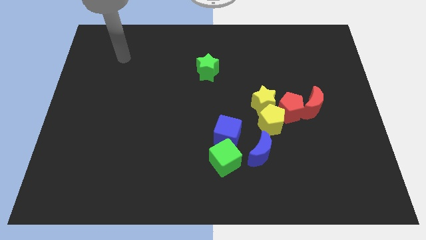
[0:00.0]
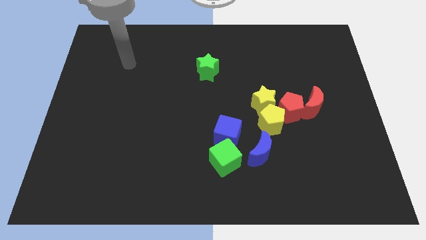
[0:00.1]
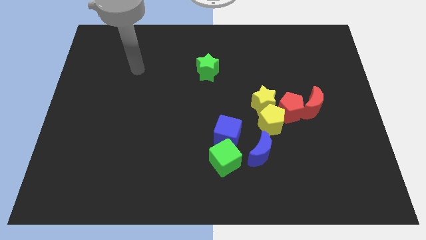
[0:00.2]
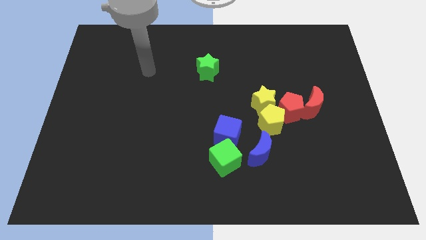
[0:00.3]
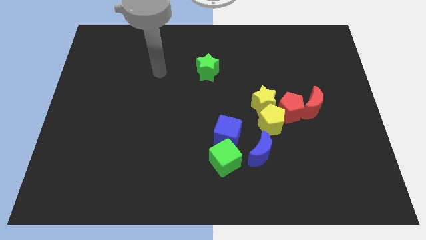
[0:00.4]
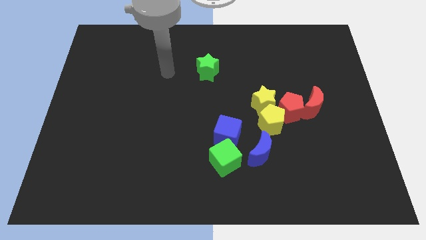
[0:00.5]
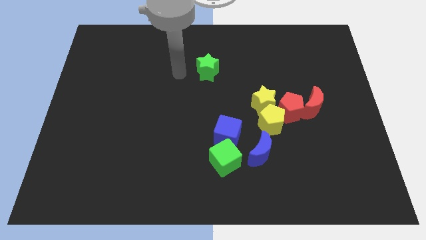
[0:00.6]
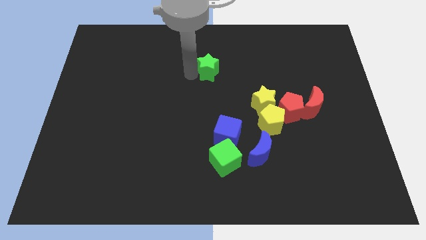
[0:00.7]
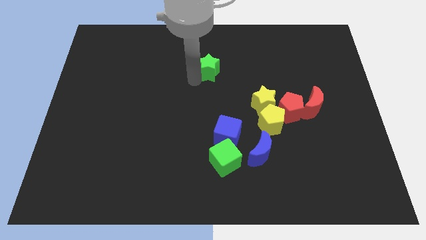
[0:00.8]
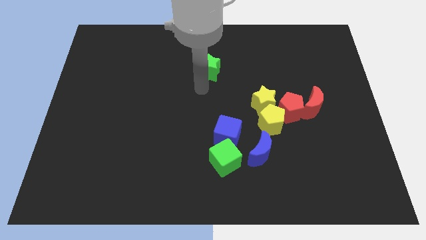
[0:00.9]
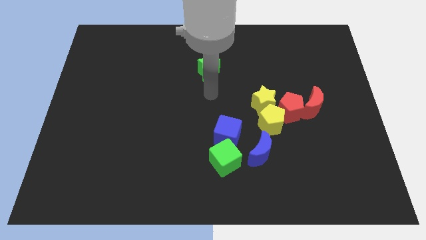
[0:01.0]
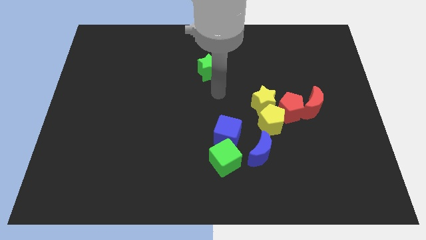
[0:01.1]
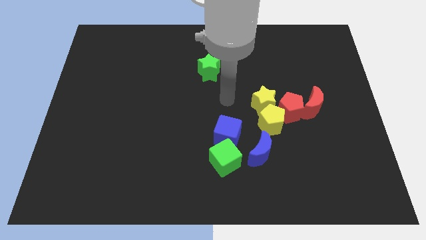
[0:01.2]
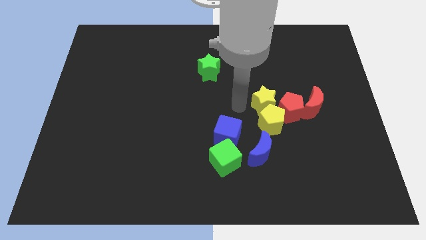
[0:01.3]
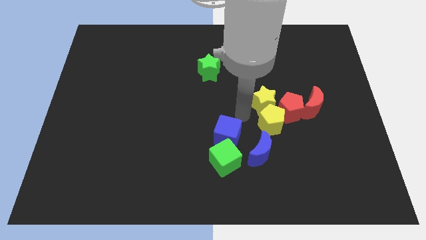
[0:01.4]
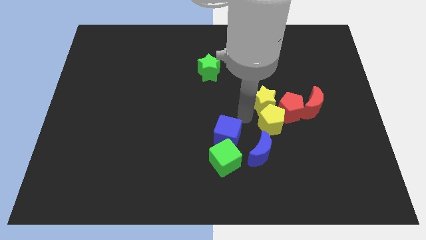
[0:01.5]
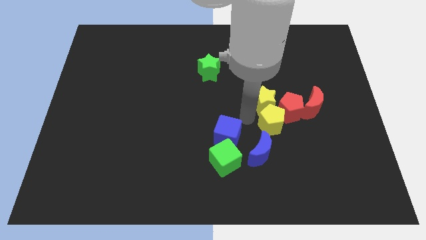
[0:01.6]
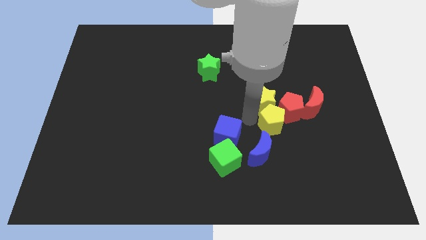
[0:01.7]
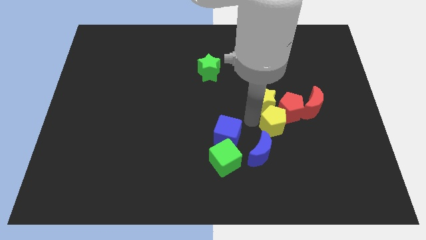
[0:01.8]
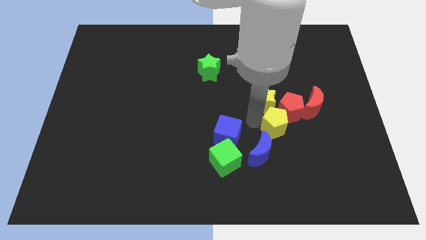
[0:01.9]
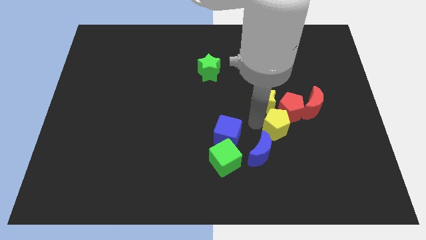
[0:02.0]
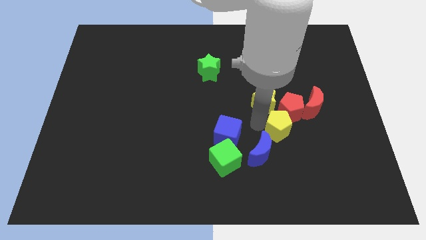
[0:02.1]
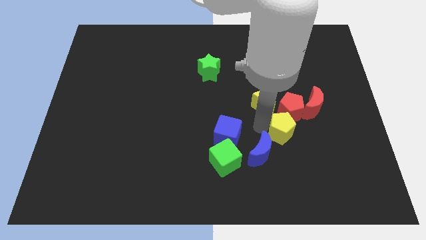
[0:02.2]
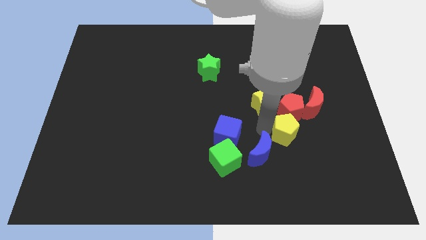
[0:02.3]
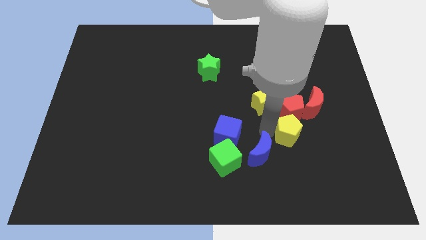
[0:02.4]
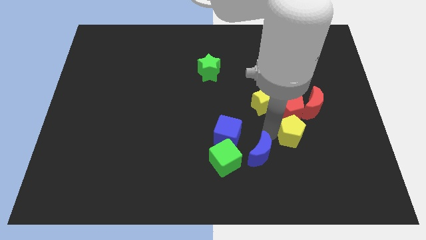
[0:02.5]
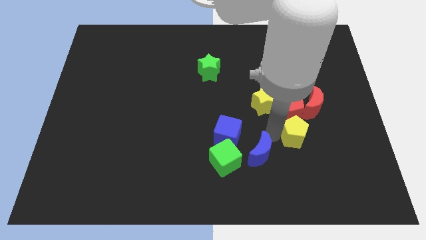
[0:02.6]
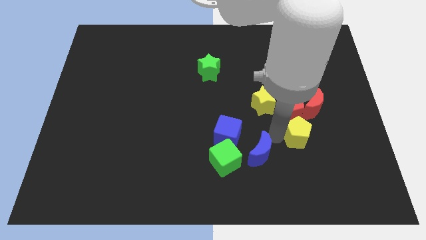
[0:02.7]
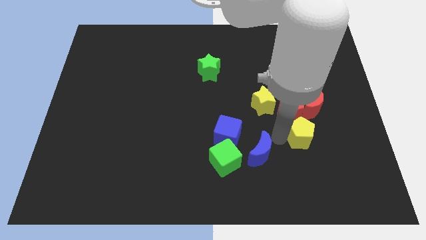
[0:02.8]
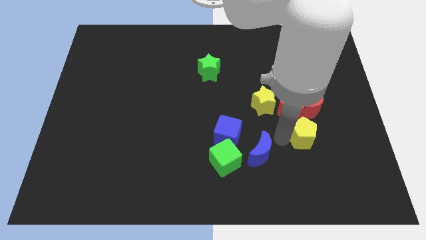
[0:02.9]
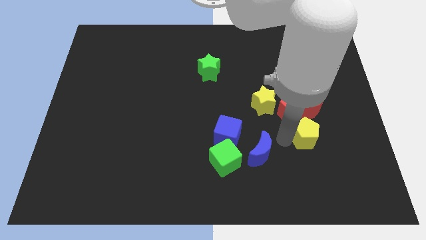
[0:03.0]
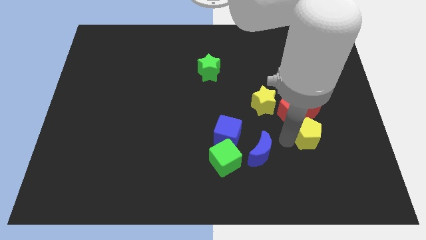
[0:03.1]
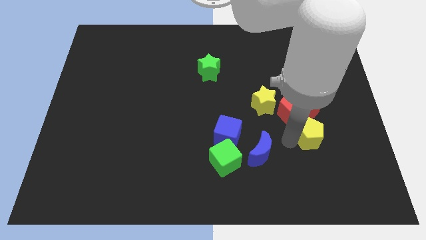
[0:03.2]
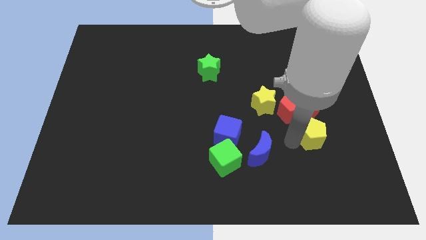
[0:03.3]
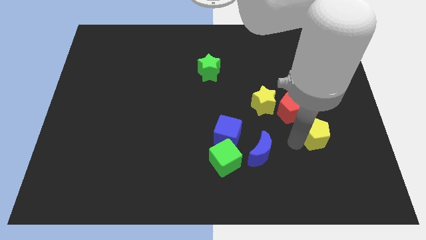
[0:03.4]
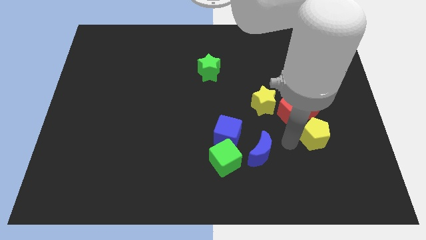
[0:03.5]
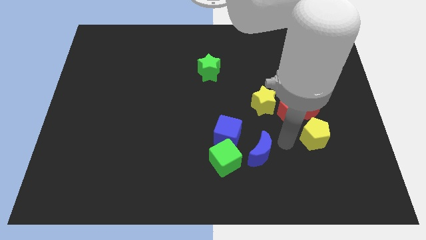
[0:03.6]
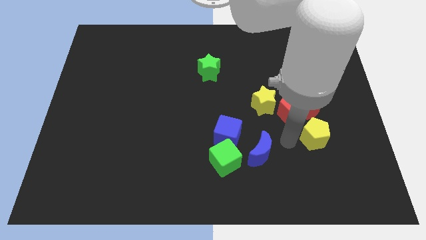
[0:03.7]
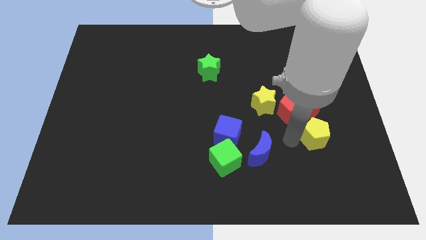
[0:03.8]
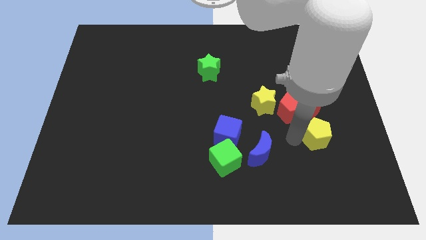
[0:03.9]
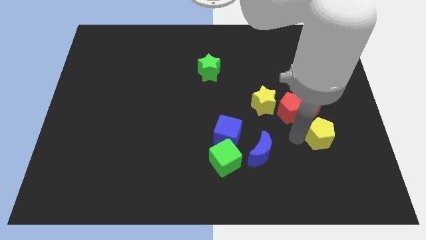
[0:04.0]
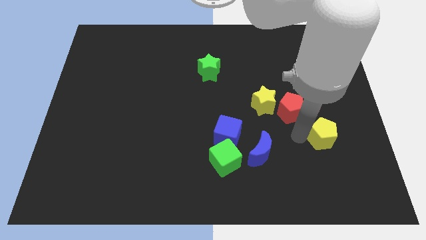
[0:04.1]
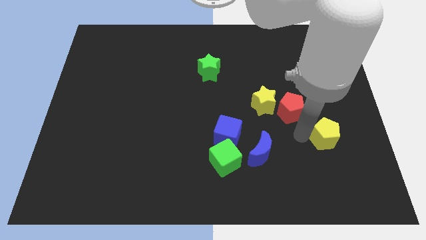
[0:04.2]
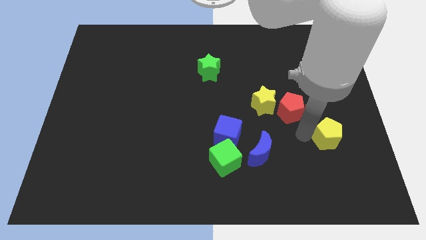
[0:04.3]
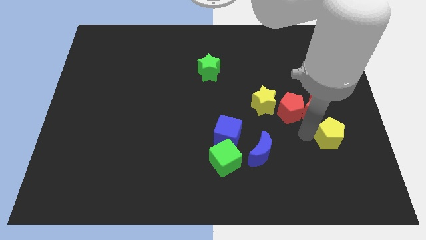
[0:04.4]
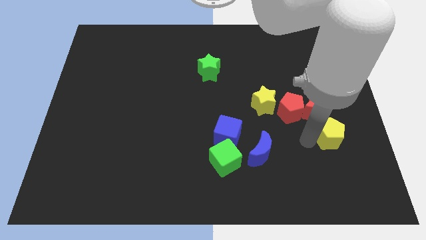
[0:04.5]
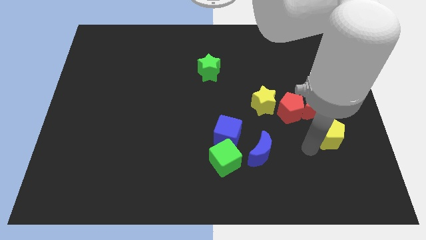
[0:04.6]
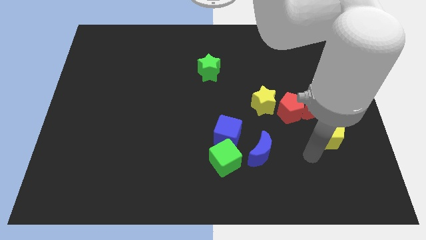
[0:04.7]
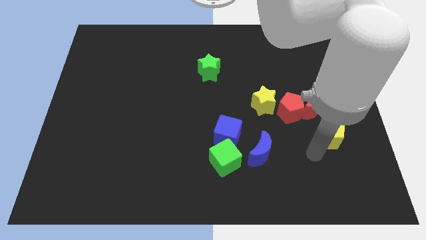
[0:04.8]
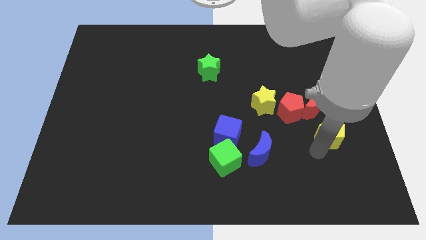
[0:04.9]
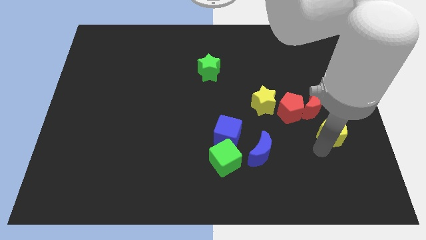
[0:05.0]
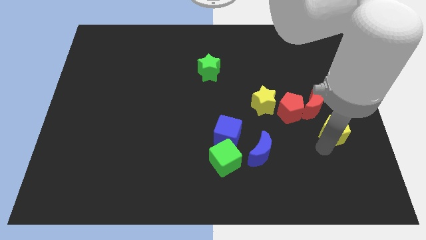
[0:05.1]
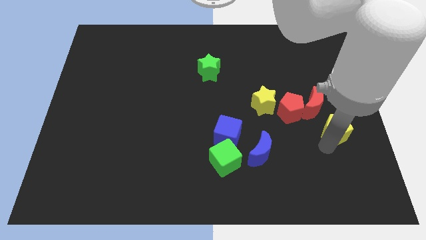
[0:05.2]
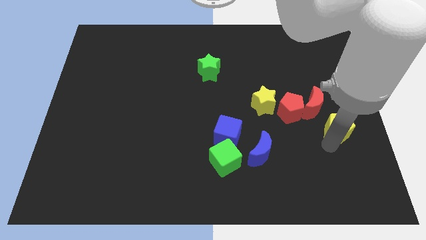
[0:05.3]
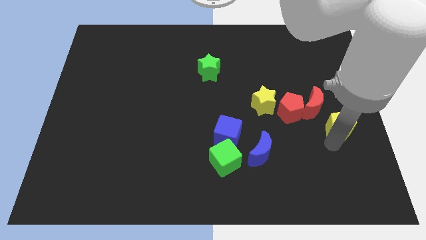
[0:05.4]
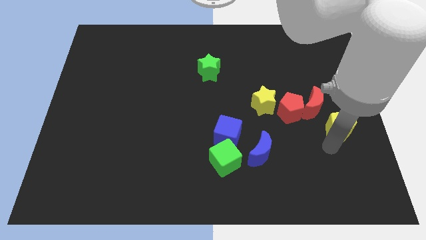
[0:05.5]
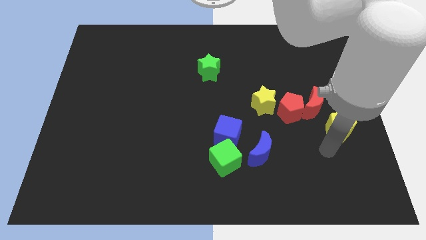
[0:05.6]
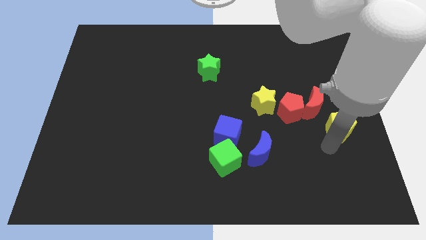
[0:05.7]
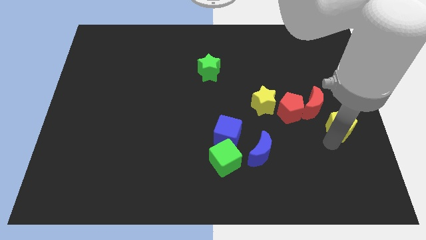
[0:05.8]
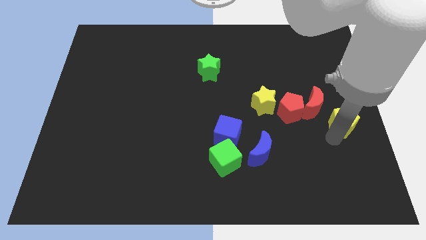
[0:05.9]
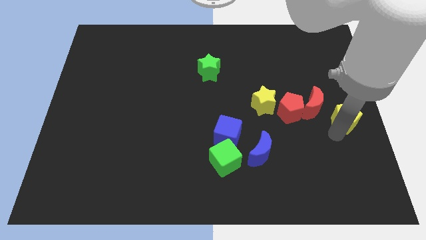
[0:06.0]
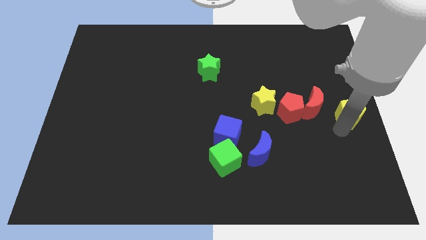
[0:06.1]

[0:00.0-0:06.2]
move the yellow pentagon a bit up and right diagonally

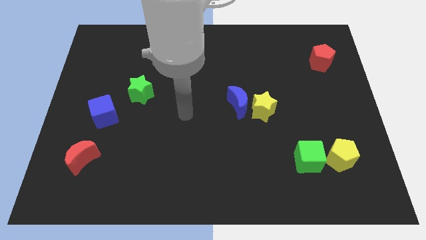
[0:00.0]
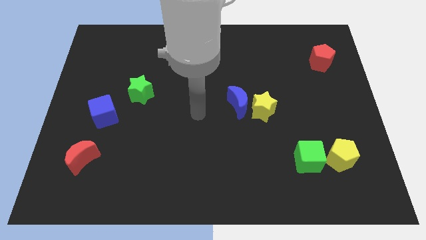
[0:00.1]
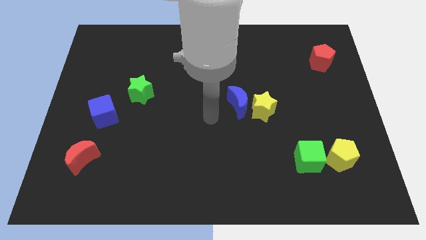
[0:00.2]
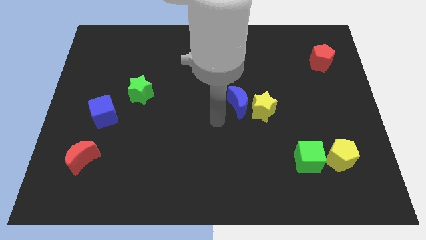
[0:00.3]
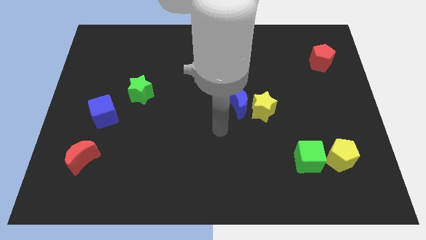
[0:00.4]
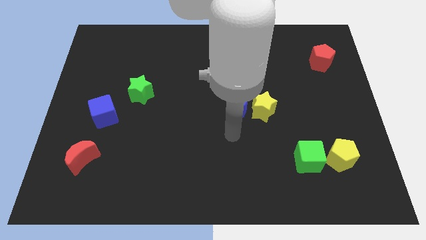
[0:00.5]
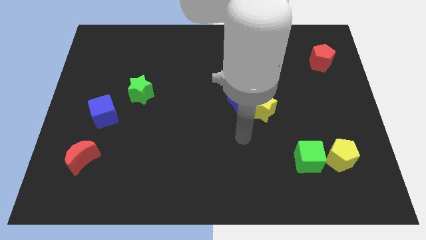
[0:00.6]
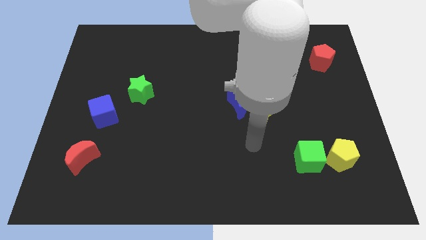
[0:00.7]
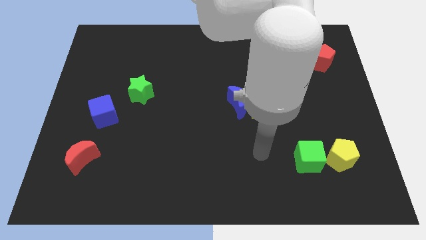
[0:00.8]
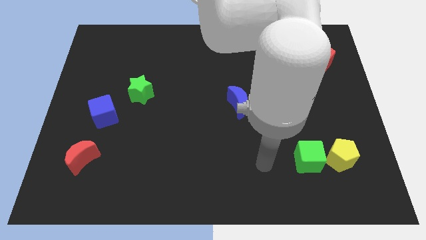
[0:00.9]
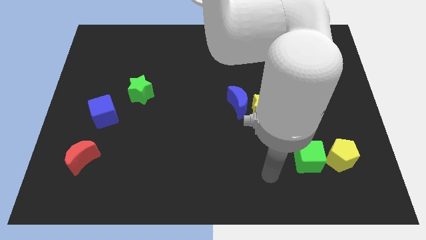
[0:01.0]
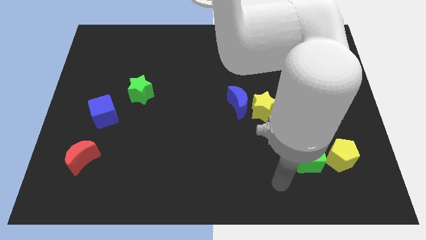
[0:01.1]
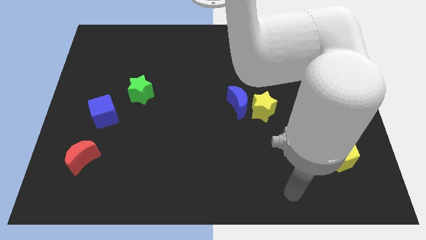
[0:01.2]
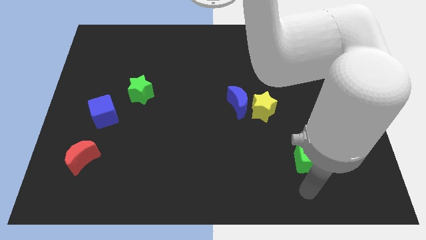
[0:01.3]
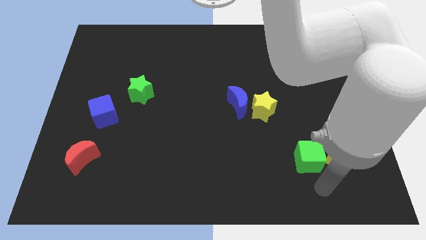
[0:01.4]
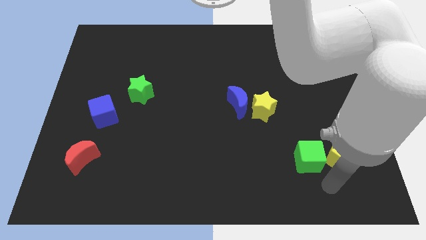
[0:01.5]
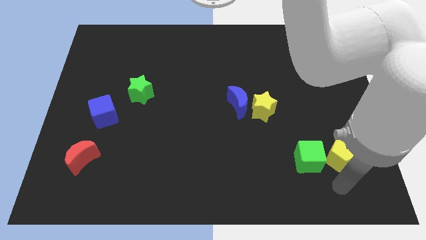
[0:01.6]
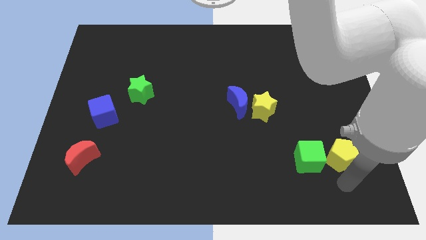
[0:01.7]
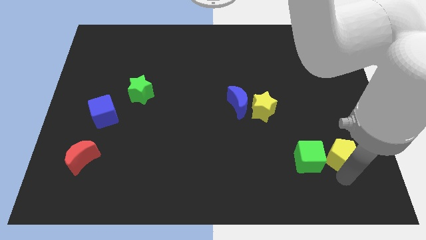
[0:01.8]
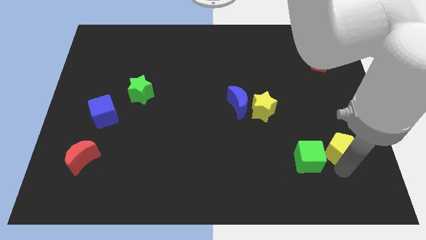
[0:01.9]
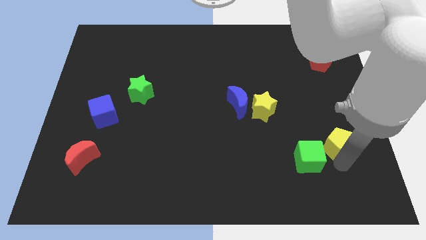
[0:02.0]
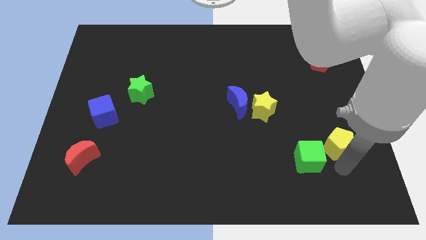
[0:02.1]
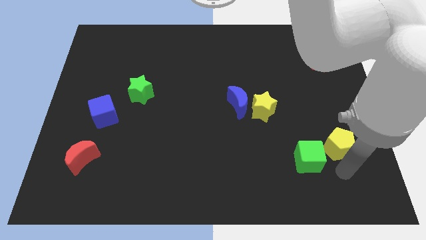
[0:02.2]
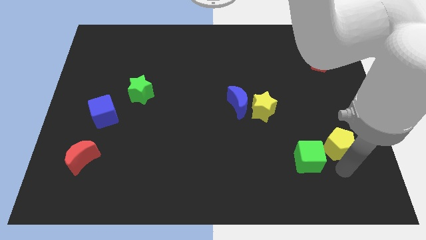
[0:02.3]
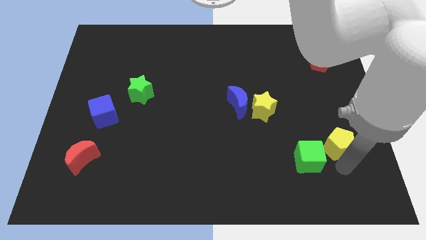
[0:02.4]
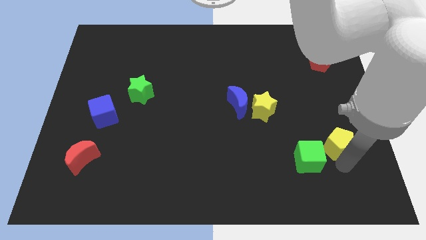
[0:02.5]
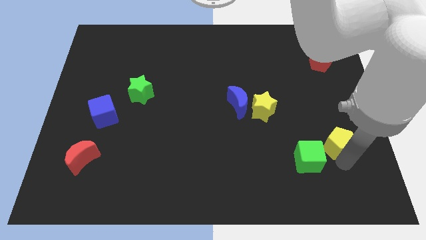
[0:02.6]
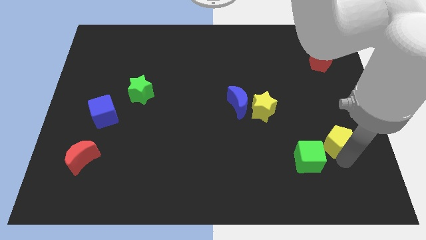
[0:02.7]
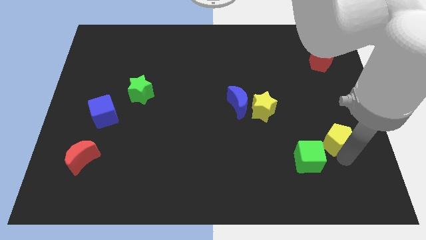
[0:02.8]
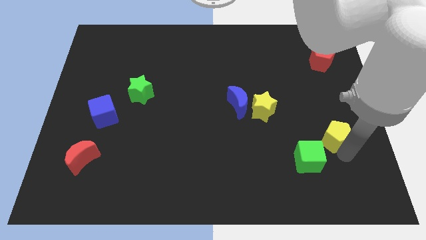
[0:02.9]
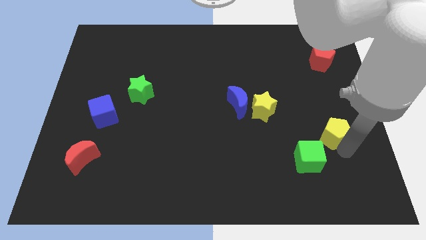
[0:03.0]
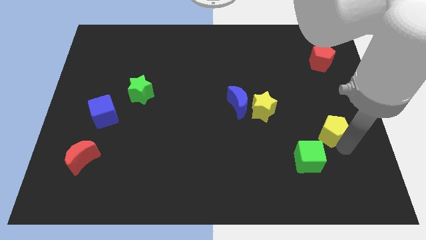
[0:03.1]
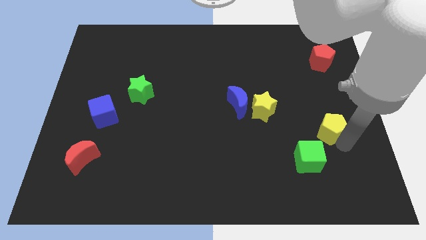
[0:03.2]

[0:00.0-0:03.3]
push the yellow pentagon up a little
